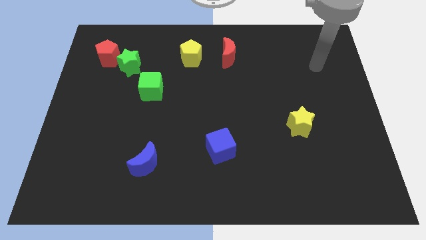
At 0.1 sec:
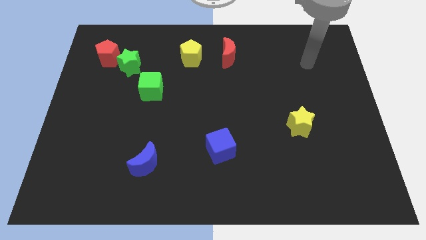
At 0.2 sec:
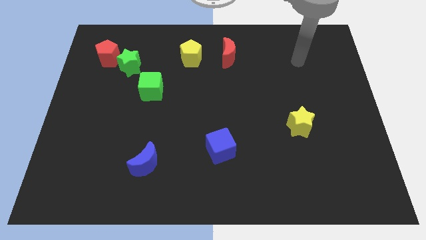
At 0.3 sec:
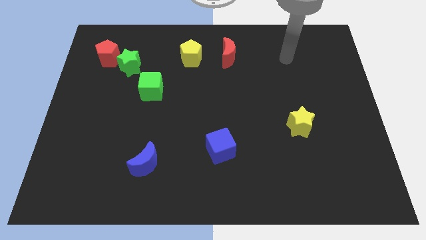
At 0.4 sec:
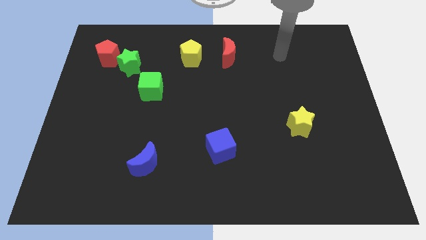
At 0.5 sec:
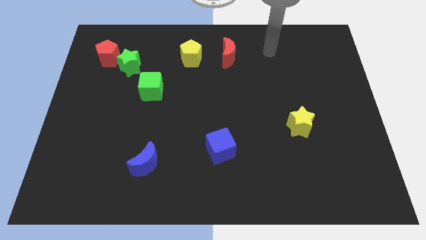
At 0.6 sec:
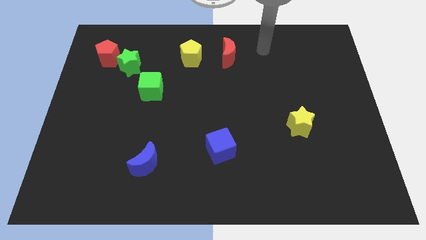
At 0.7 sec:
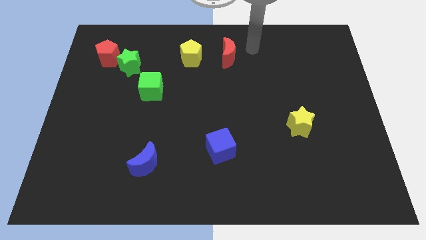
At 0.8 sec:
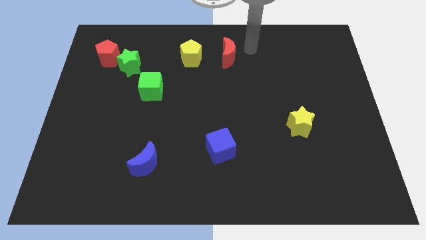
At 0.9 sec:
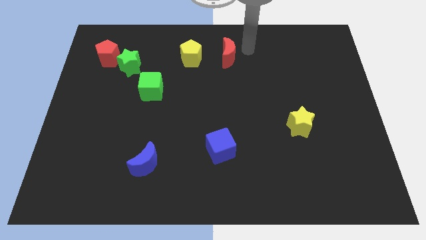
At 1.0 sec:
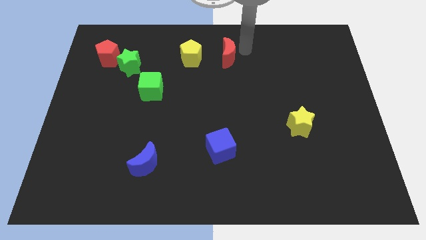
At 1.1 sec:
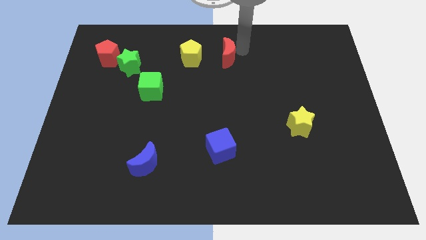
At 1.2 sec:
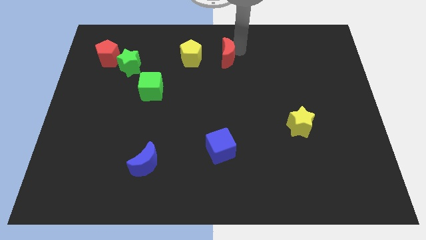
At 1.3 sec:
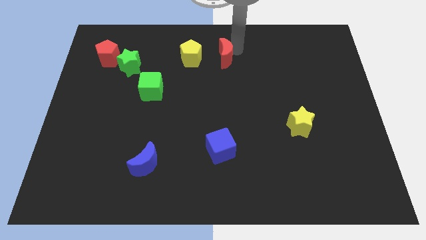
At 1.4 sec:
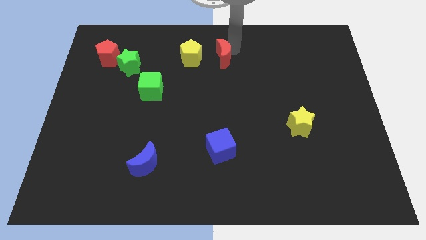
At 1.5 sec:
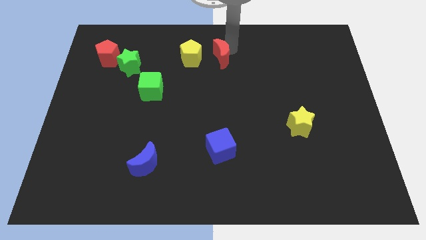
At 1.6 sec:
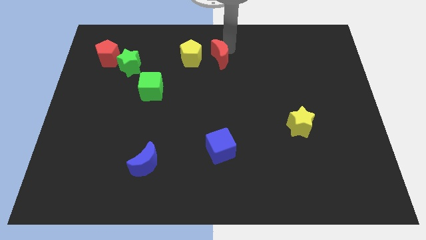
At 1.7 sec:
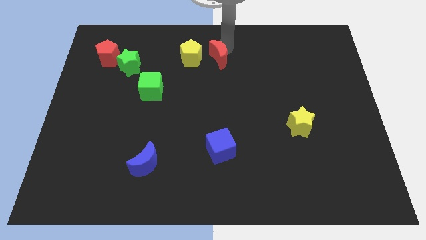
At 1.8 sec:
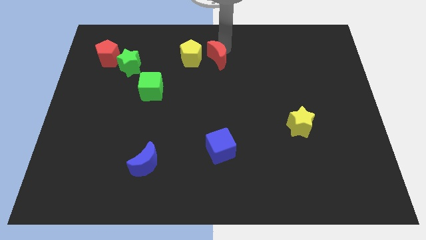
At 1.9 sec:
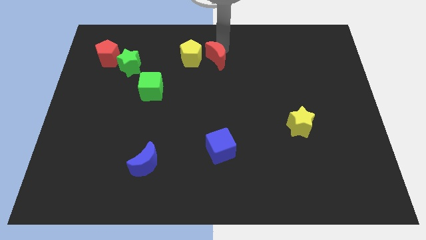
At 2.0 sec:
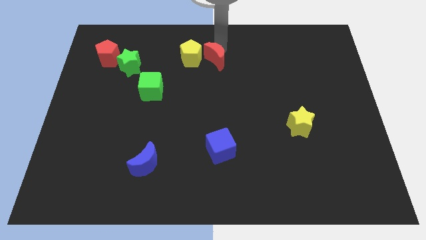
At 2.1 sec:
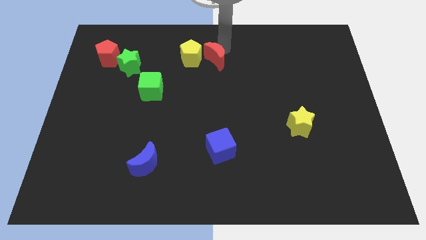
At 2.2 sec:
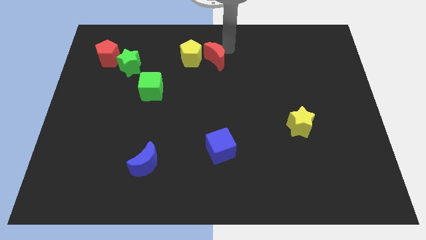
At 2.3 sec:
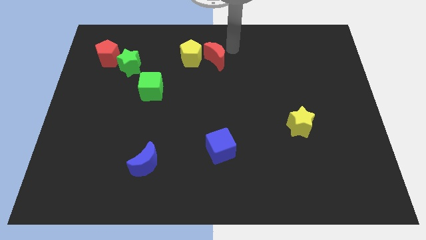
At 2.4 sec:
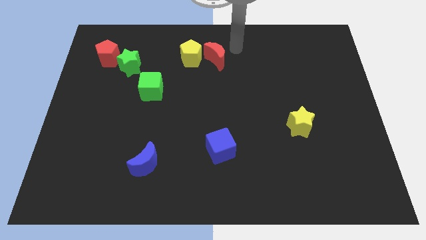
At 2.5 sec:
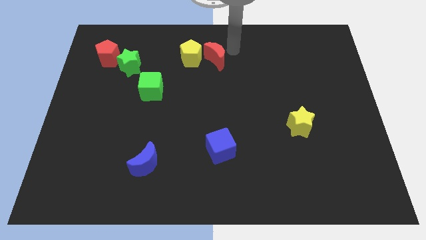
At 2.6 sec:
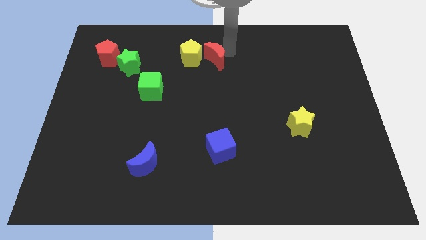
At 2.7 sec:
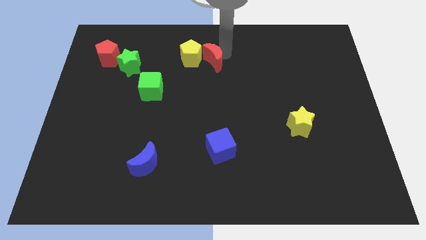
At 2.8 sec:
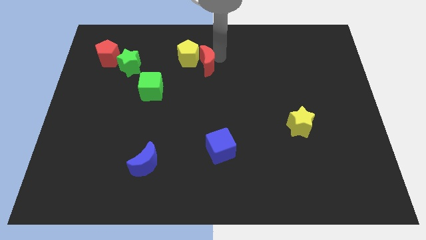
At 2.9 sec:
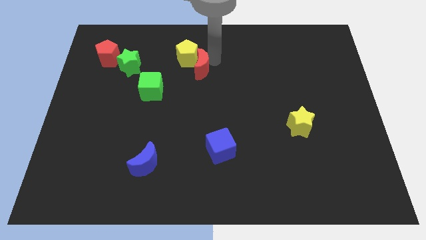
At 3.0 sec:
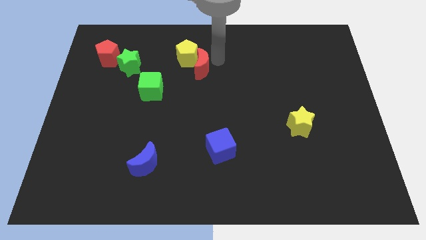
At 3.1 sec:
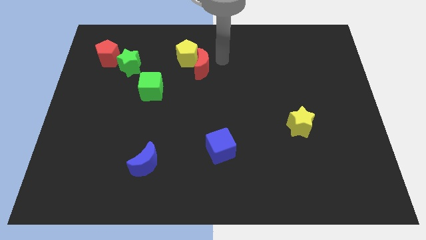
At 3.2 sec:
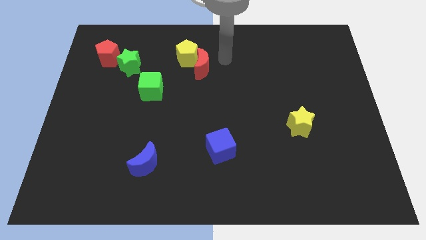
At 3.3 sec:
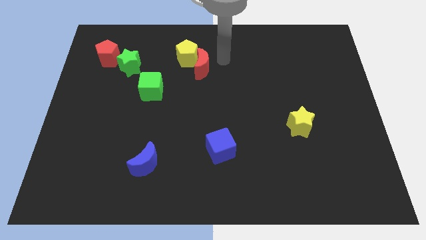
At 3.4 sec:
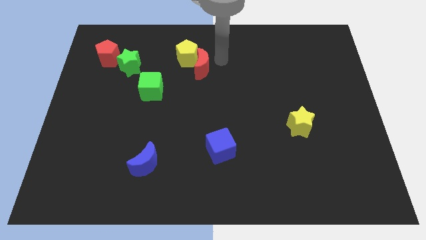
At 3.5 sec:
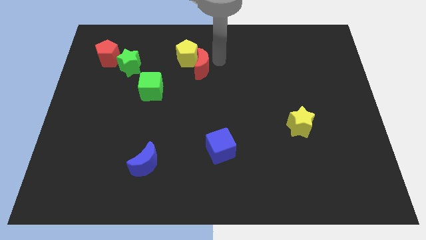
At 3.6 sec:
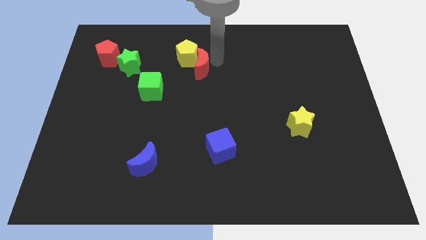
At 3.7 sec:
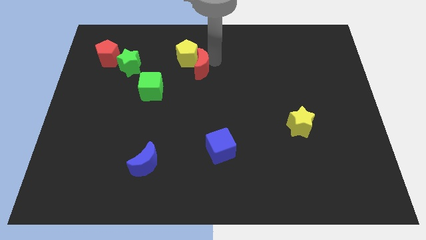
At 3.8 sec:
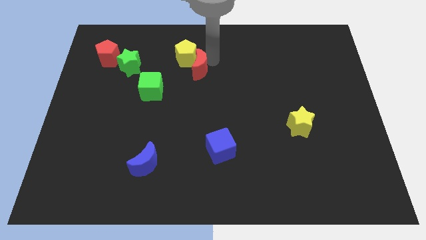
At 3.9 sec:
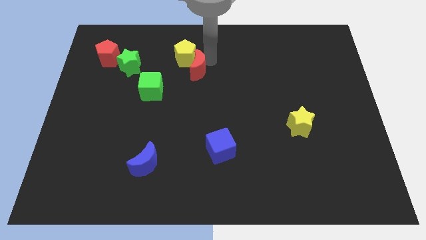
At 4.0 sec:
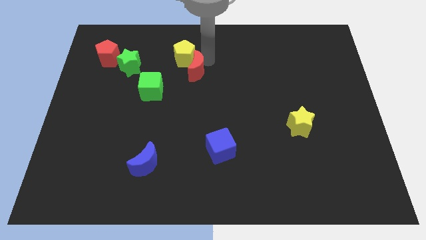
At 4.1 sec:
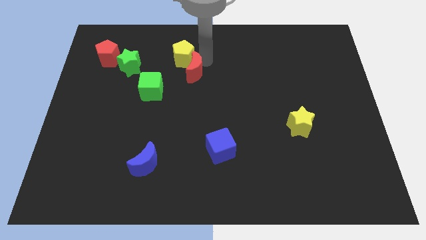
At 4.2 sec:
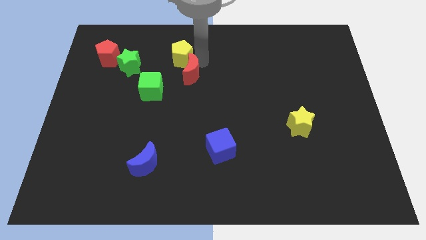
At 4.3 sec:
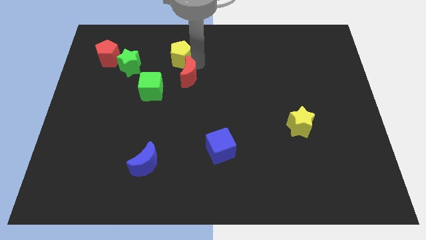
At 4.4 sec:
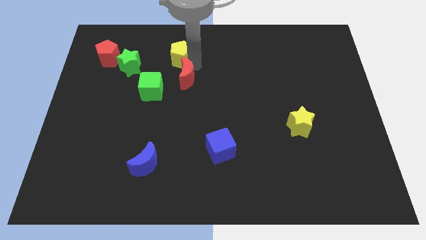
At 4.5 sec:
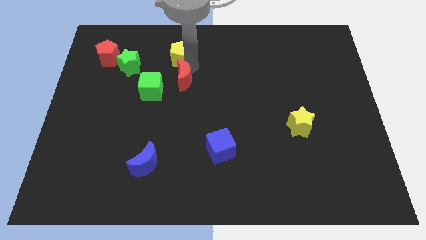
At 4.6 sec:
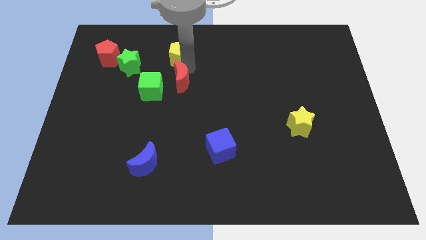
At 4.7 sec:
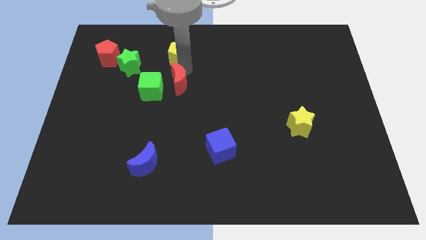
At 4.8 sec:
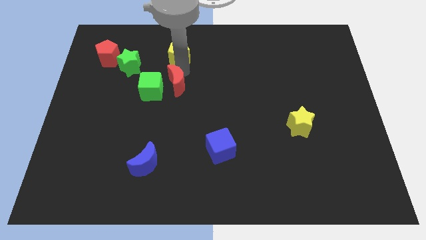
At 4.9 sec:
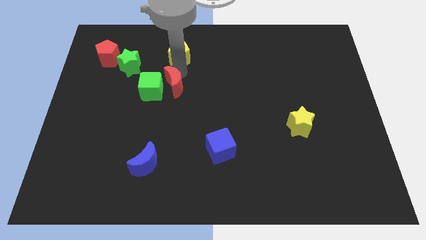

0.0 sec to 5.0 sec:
slide the red moon next to the green cube

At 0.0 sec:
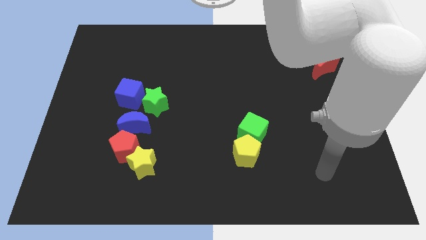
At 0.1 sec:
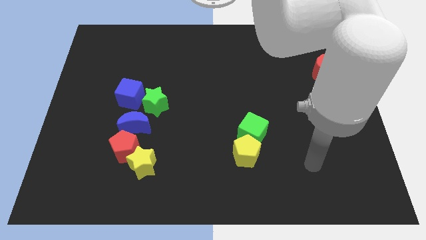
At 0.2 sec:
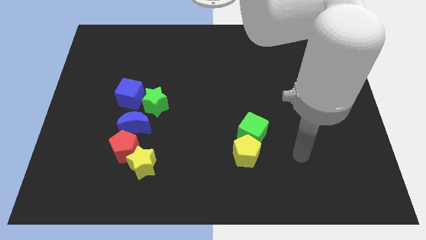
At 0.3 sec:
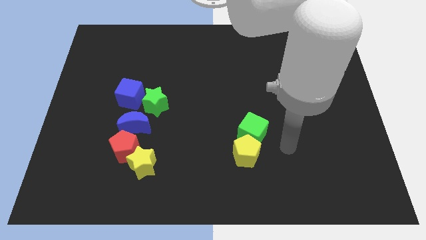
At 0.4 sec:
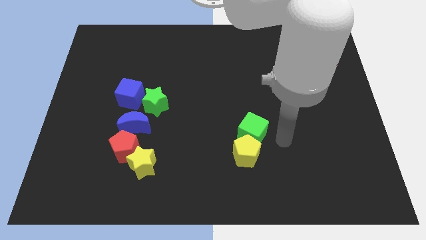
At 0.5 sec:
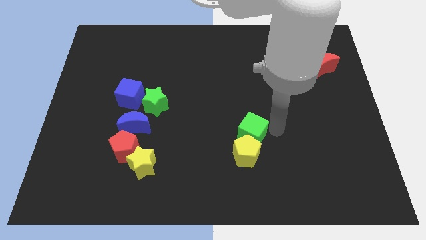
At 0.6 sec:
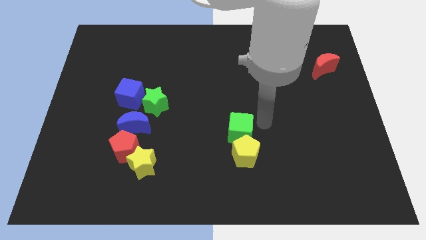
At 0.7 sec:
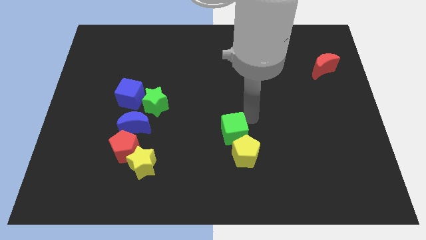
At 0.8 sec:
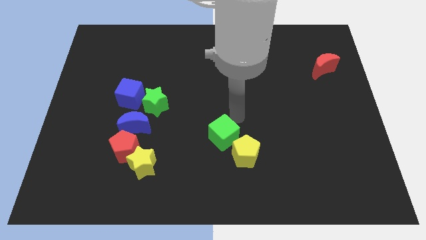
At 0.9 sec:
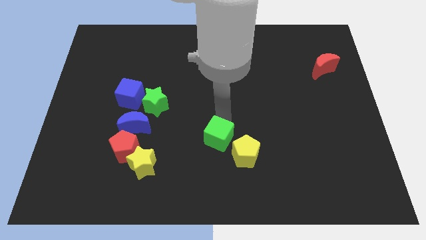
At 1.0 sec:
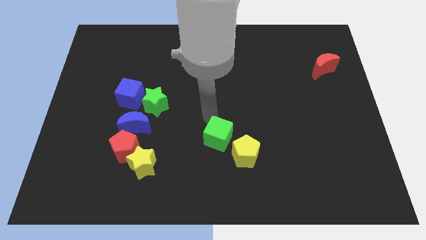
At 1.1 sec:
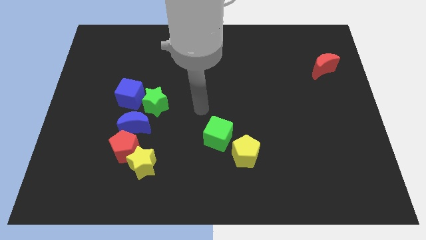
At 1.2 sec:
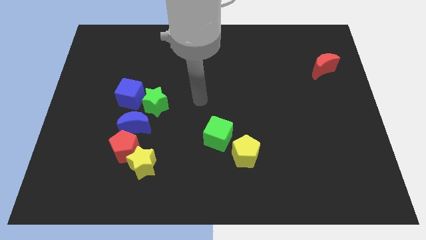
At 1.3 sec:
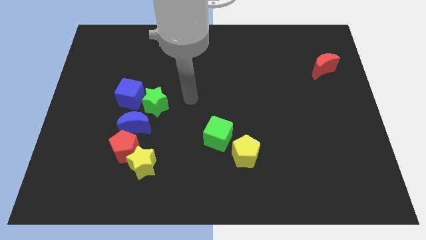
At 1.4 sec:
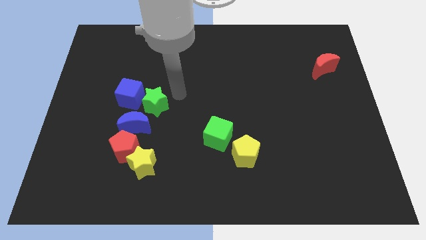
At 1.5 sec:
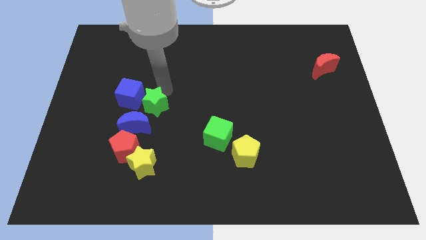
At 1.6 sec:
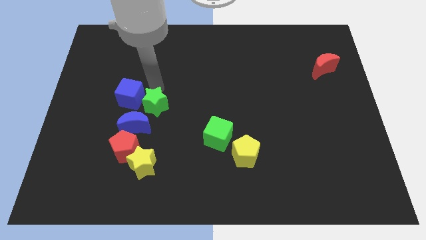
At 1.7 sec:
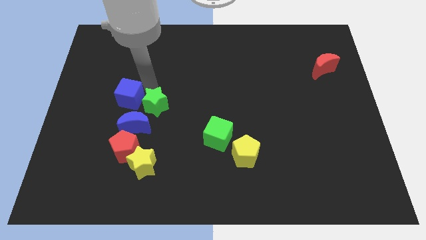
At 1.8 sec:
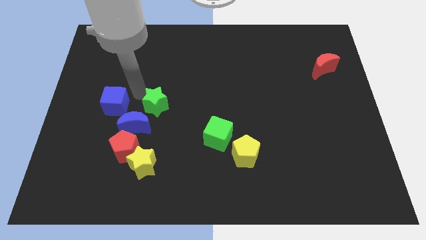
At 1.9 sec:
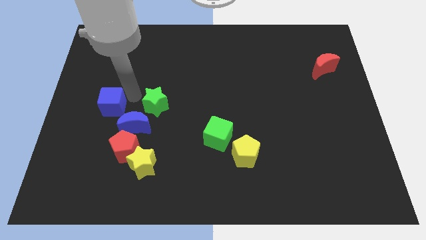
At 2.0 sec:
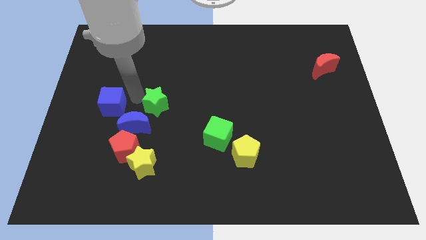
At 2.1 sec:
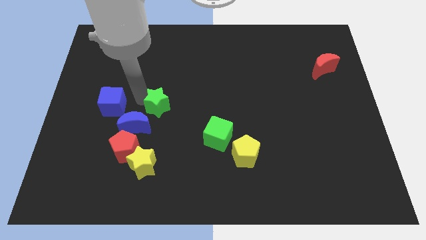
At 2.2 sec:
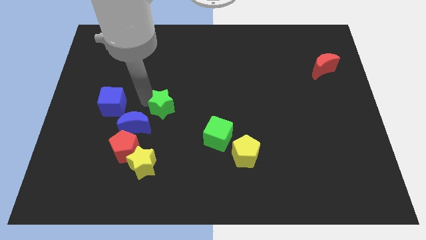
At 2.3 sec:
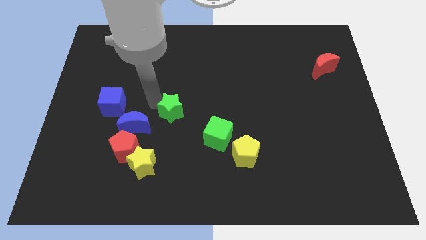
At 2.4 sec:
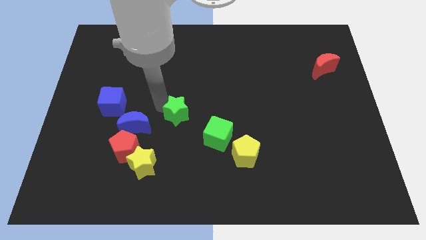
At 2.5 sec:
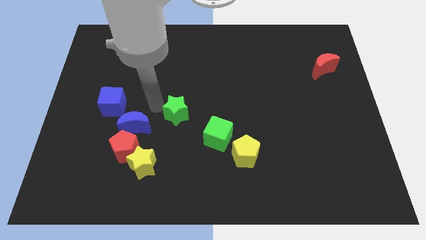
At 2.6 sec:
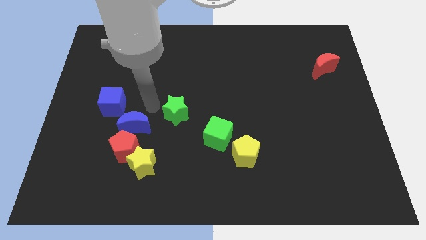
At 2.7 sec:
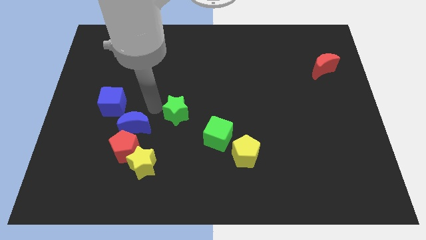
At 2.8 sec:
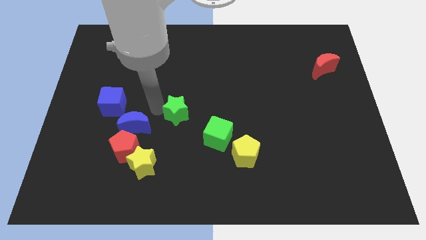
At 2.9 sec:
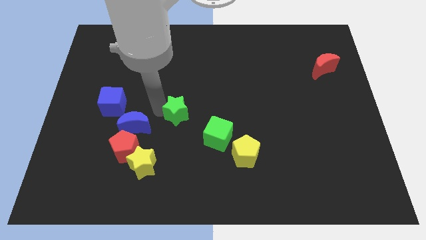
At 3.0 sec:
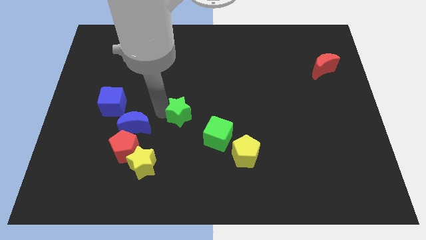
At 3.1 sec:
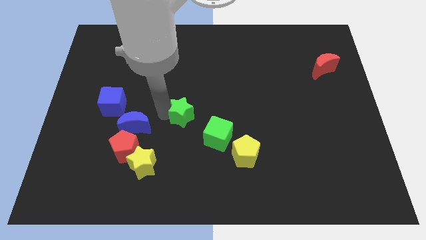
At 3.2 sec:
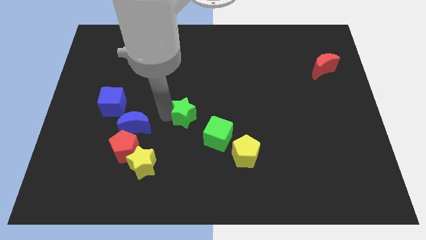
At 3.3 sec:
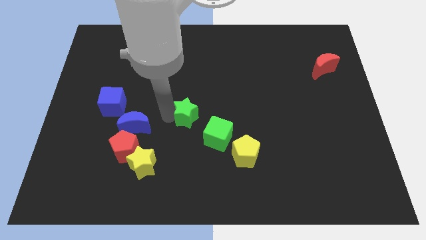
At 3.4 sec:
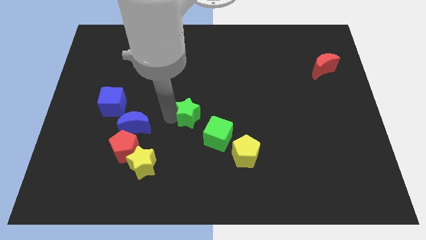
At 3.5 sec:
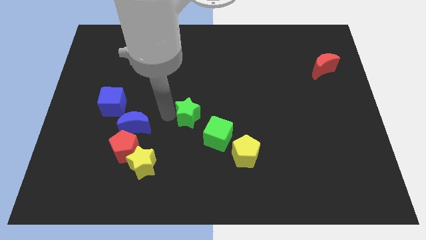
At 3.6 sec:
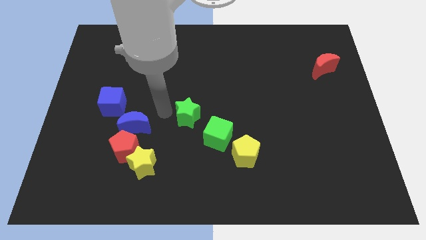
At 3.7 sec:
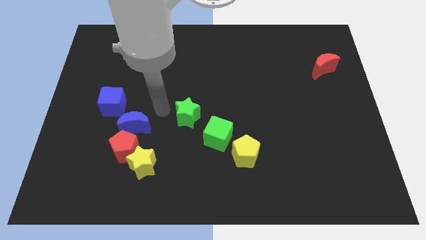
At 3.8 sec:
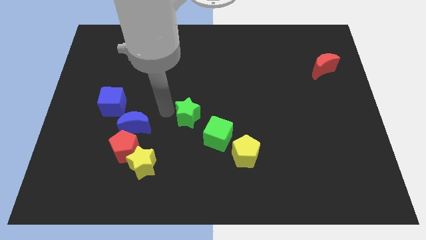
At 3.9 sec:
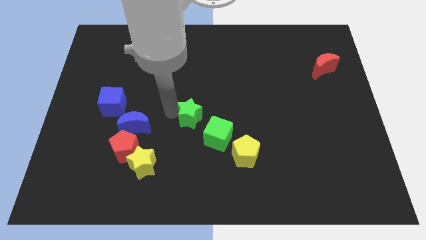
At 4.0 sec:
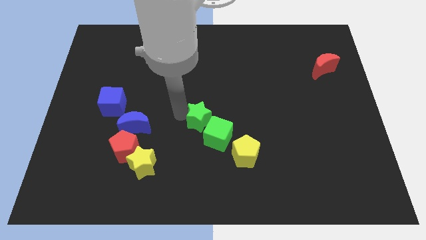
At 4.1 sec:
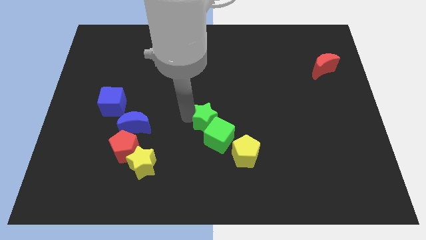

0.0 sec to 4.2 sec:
move the green star to the green cube
